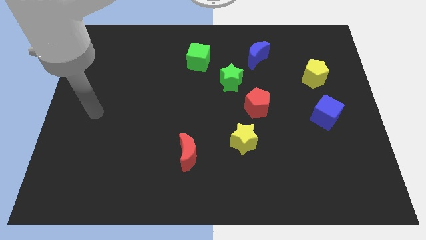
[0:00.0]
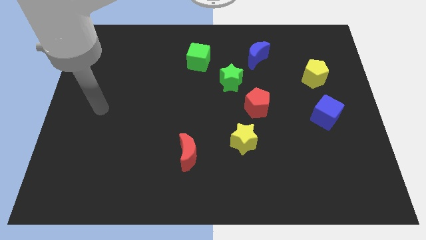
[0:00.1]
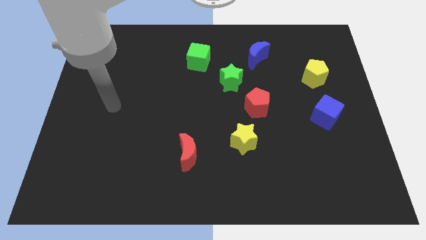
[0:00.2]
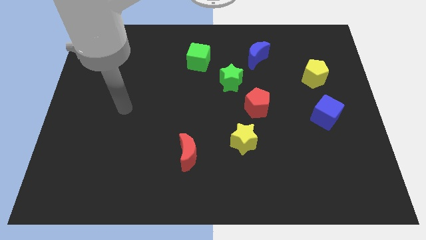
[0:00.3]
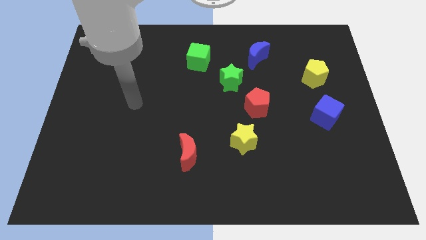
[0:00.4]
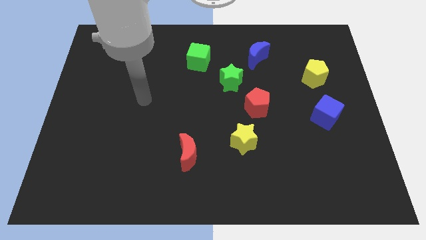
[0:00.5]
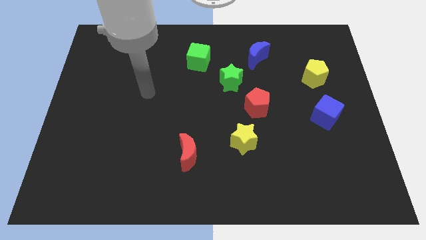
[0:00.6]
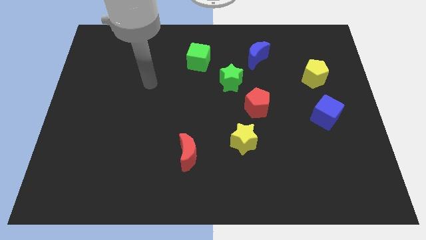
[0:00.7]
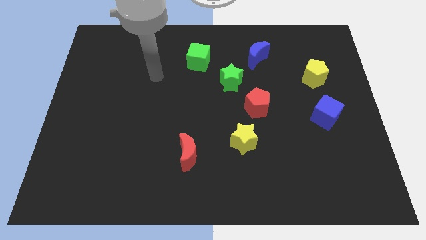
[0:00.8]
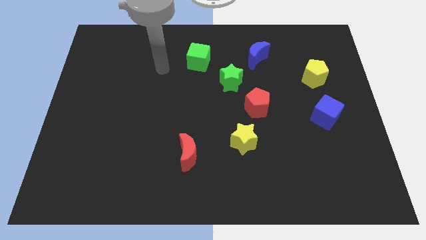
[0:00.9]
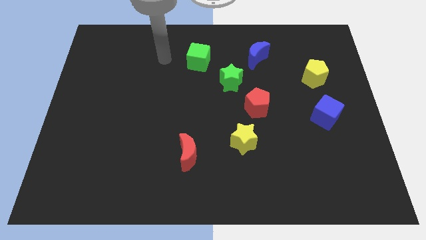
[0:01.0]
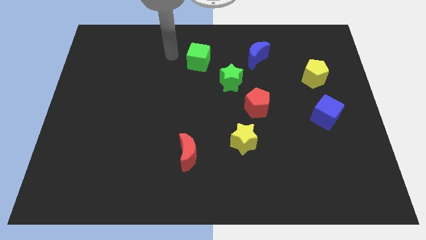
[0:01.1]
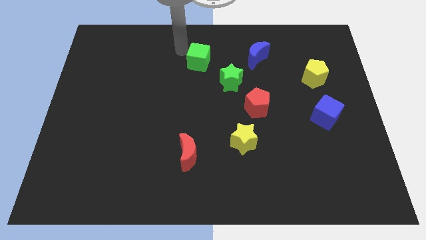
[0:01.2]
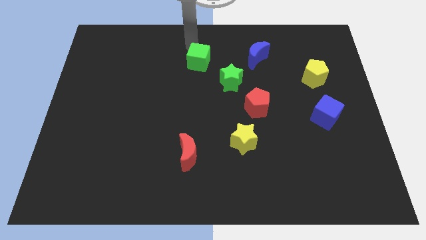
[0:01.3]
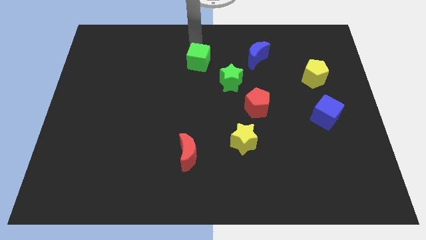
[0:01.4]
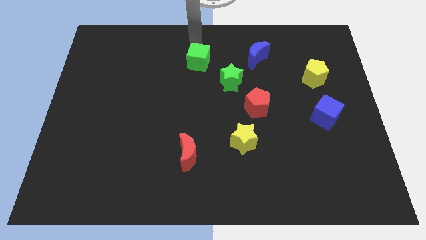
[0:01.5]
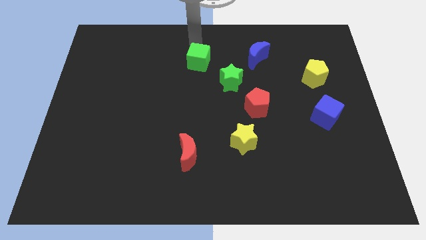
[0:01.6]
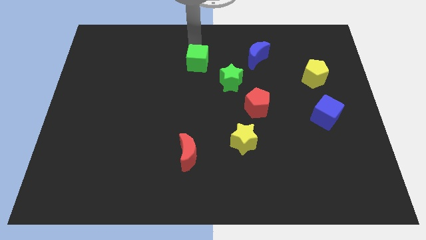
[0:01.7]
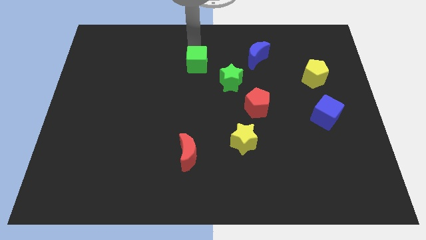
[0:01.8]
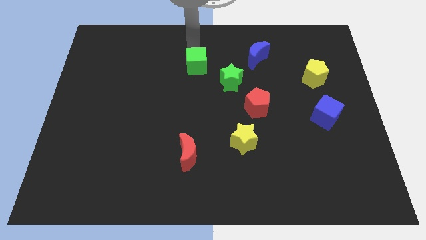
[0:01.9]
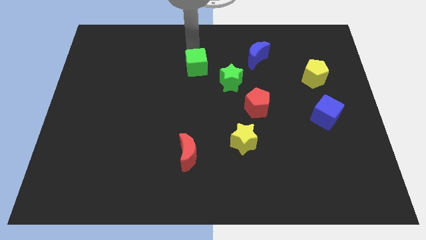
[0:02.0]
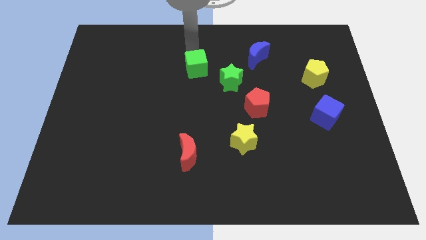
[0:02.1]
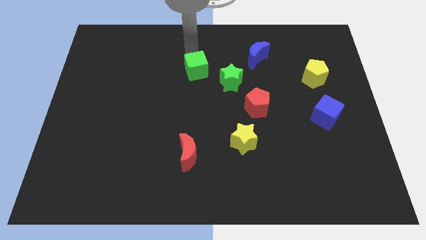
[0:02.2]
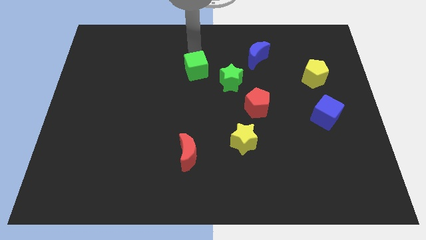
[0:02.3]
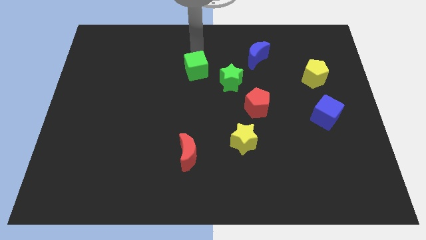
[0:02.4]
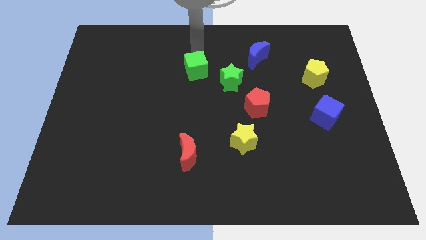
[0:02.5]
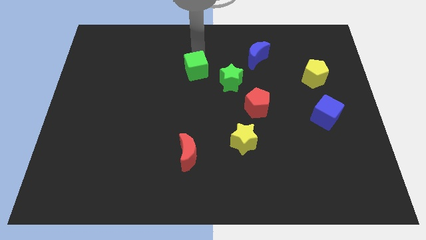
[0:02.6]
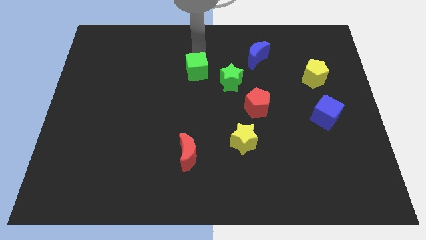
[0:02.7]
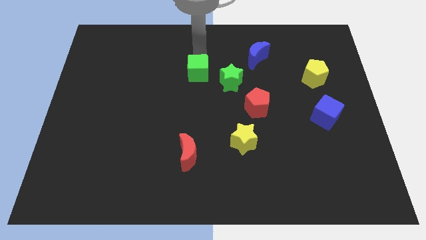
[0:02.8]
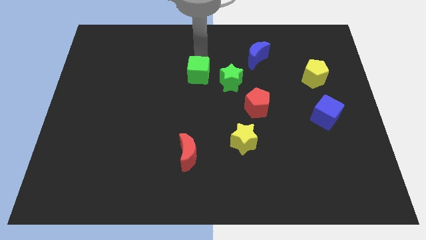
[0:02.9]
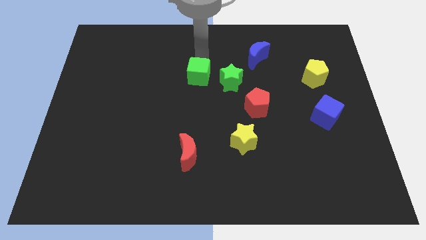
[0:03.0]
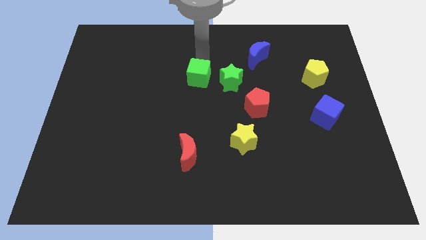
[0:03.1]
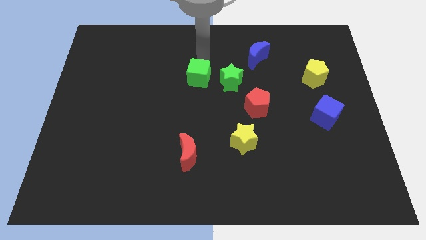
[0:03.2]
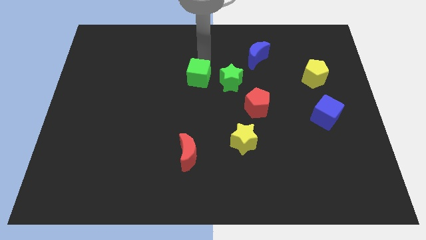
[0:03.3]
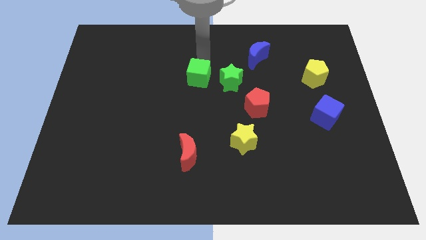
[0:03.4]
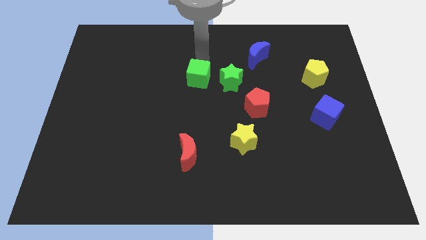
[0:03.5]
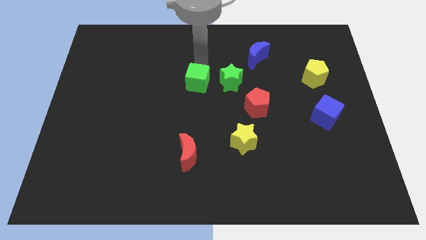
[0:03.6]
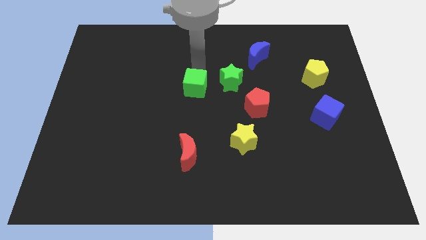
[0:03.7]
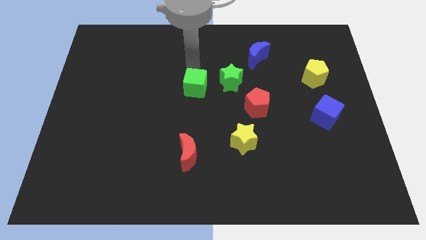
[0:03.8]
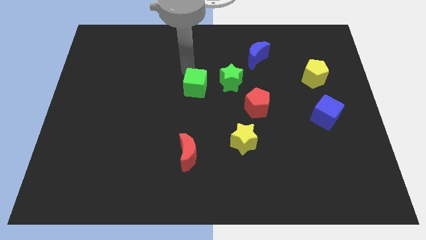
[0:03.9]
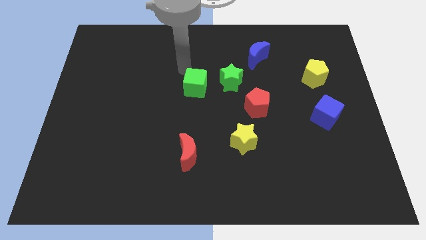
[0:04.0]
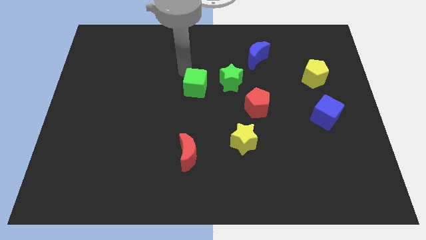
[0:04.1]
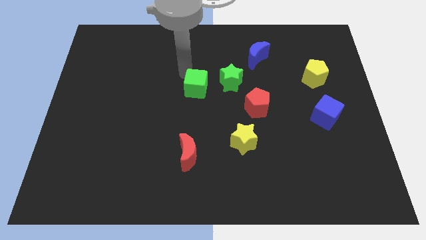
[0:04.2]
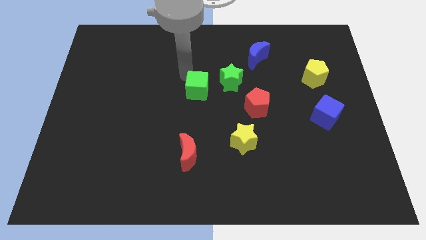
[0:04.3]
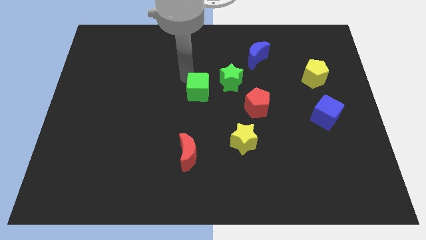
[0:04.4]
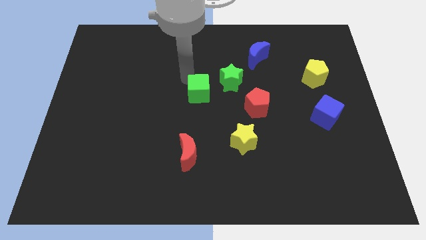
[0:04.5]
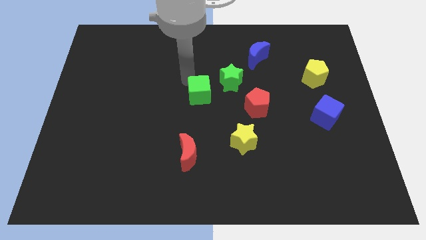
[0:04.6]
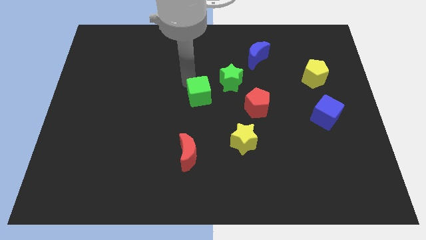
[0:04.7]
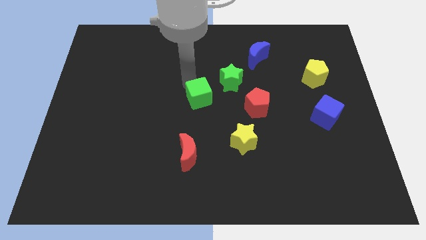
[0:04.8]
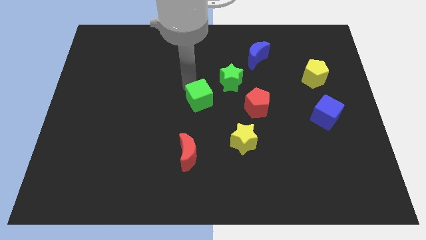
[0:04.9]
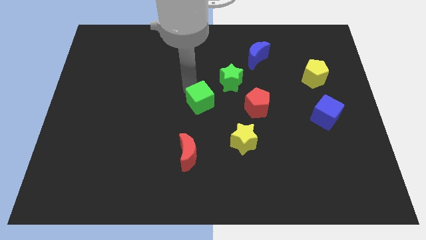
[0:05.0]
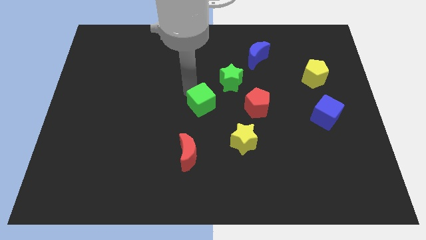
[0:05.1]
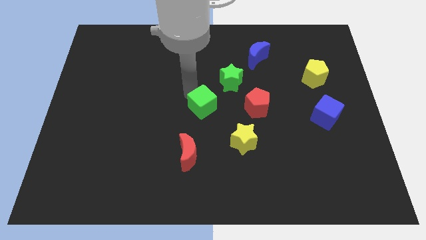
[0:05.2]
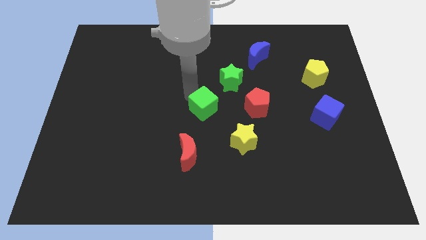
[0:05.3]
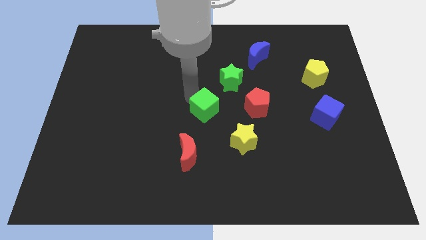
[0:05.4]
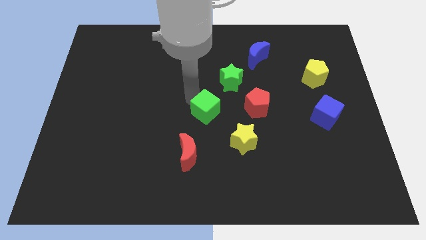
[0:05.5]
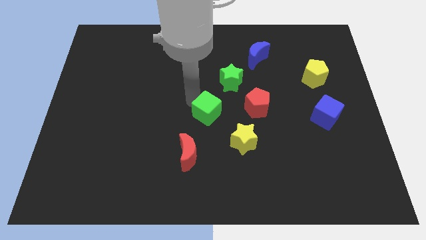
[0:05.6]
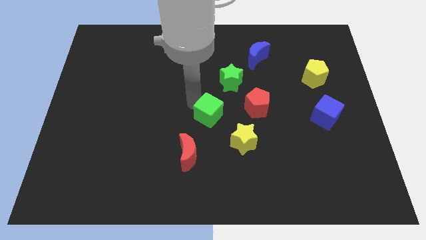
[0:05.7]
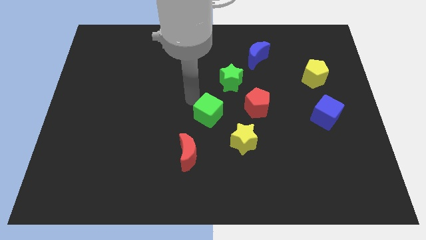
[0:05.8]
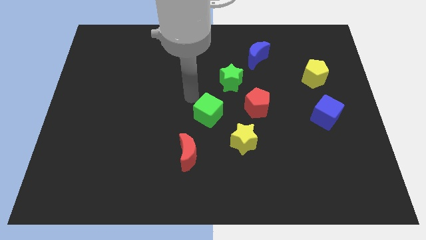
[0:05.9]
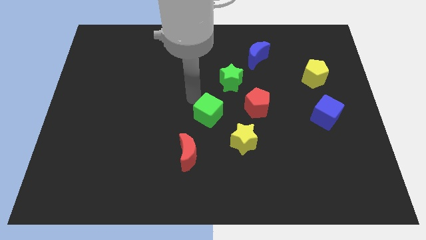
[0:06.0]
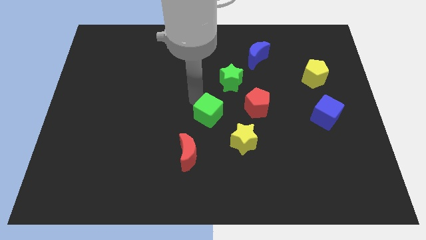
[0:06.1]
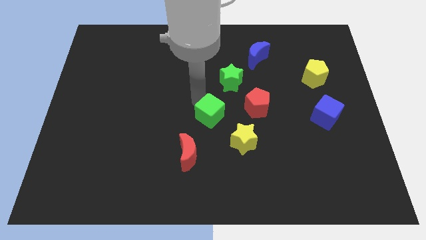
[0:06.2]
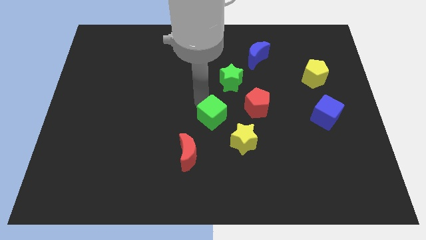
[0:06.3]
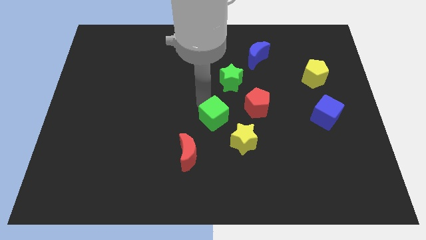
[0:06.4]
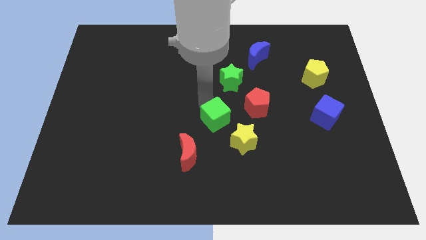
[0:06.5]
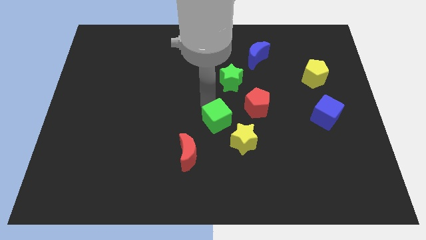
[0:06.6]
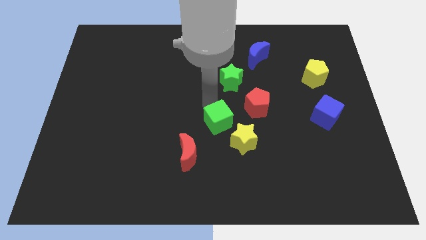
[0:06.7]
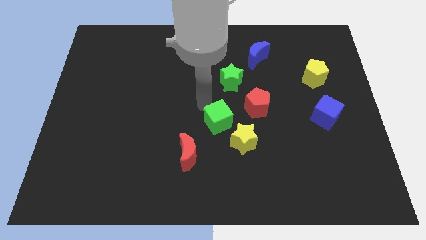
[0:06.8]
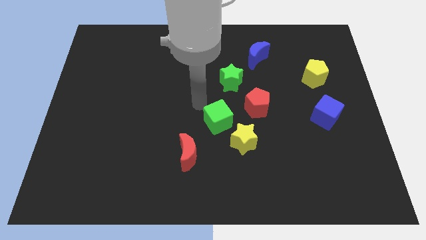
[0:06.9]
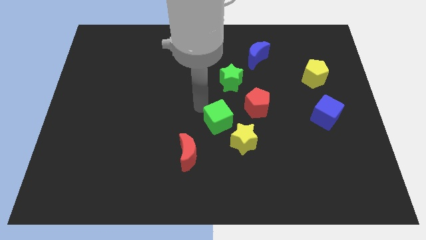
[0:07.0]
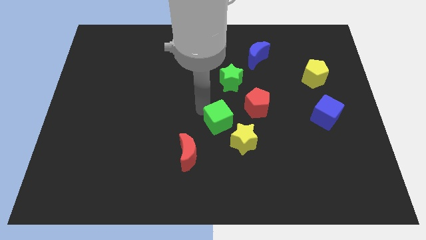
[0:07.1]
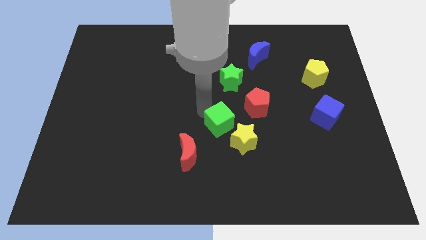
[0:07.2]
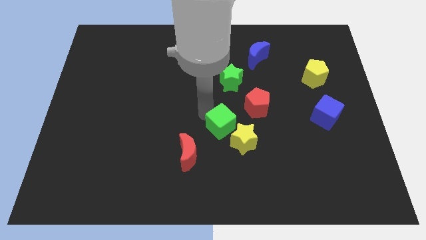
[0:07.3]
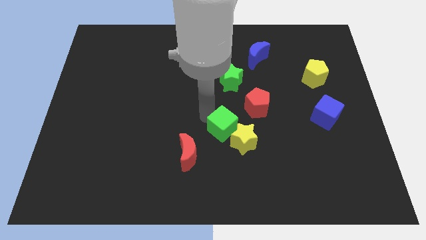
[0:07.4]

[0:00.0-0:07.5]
push the green cube to the yellow star
